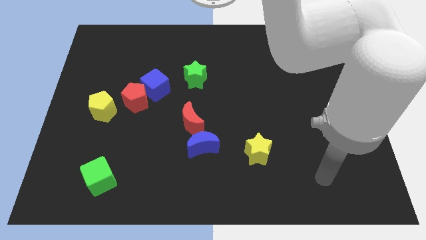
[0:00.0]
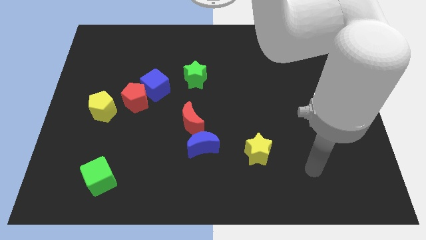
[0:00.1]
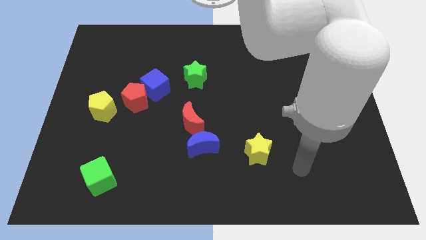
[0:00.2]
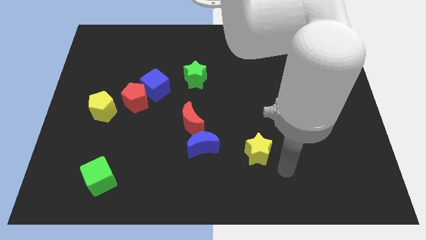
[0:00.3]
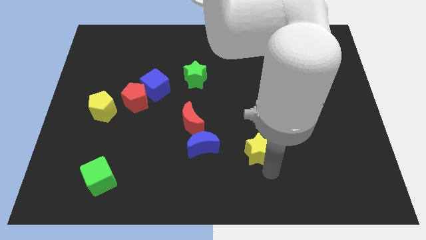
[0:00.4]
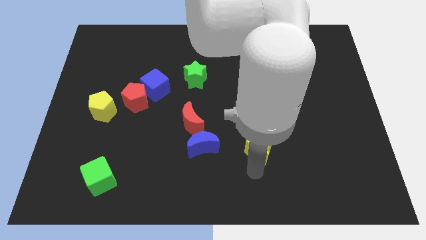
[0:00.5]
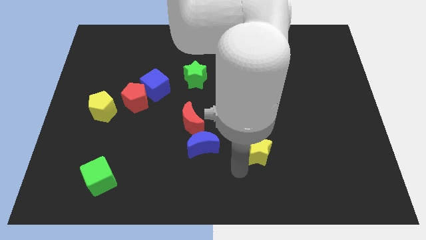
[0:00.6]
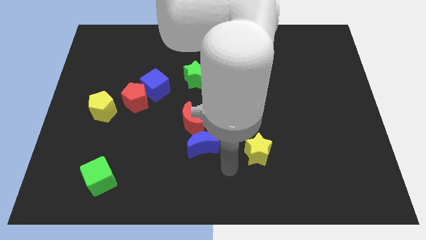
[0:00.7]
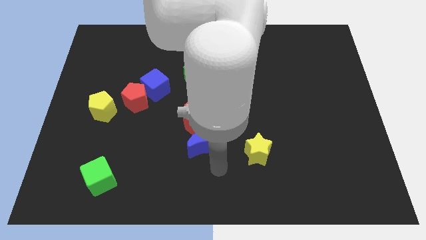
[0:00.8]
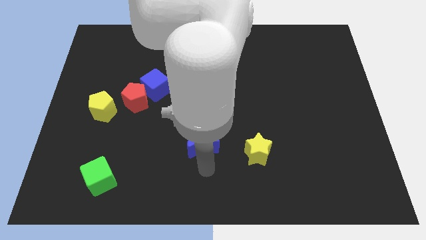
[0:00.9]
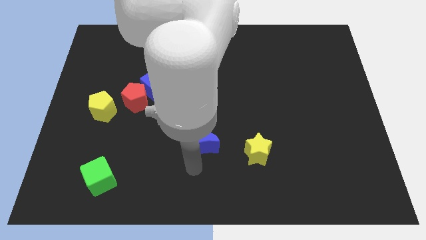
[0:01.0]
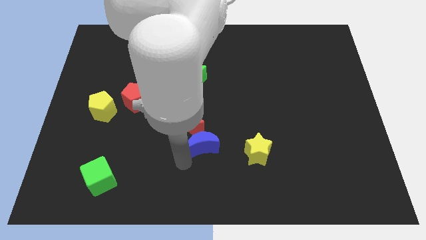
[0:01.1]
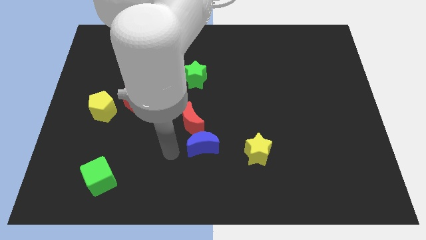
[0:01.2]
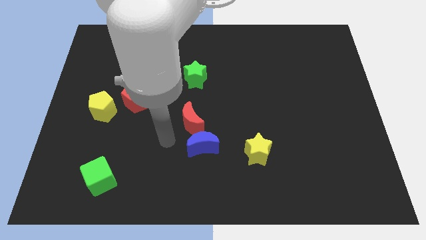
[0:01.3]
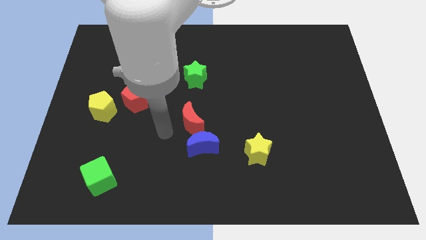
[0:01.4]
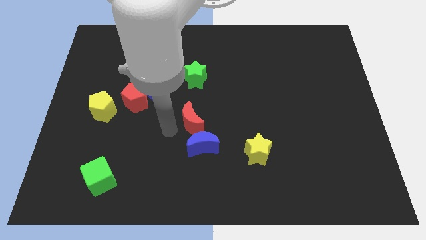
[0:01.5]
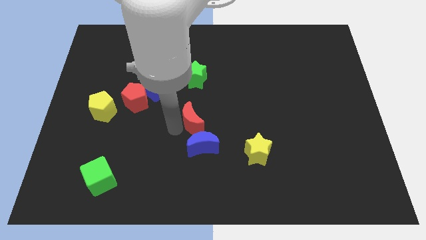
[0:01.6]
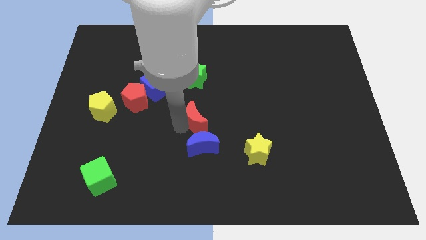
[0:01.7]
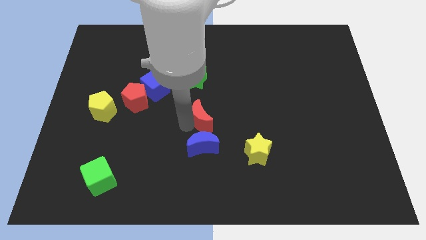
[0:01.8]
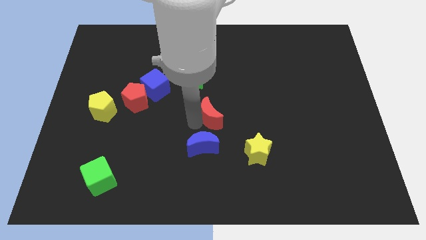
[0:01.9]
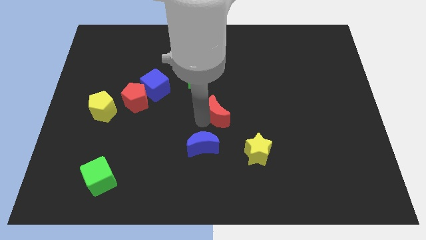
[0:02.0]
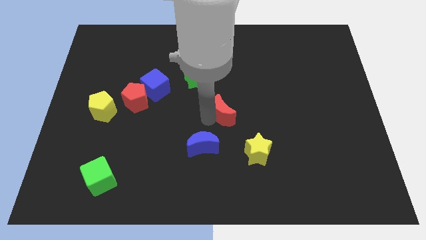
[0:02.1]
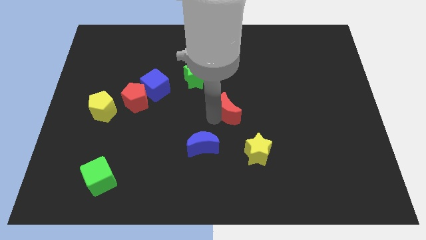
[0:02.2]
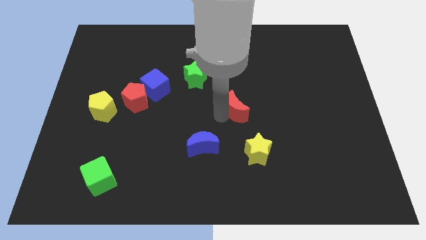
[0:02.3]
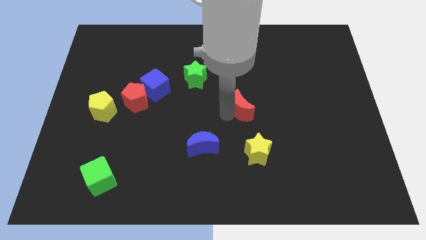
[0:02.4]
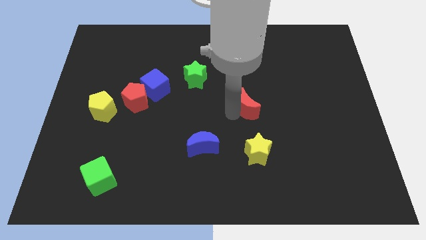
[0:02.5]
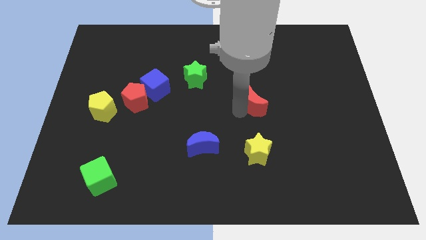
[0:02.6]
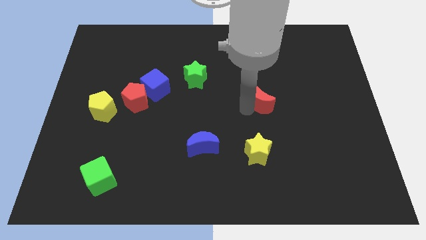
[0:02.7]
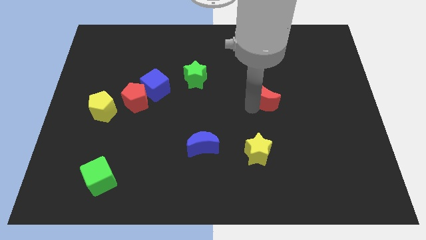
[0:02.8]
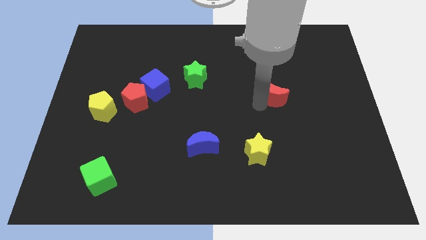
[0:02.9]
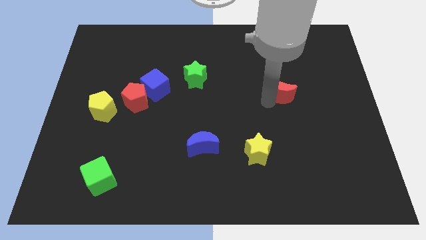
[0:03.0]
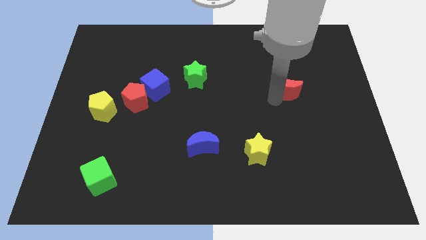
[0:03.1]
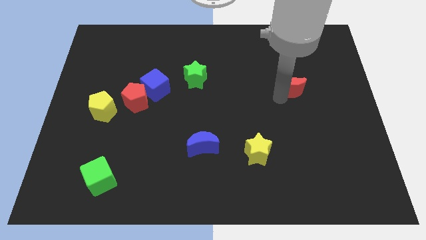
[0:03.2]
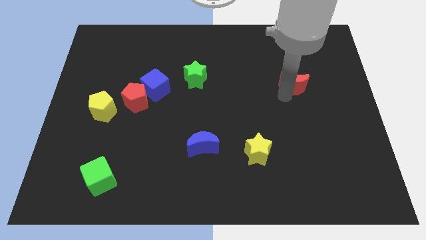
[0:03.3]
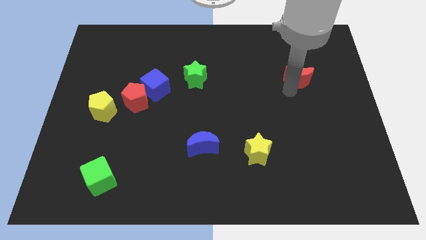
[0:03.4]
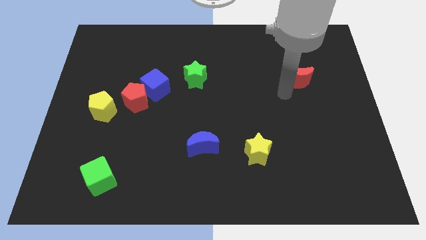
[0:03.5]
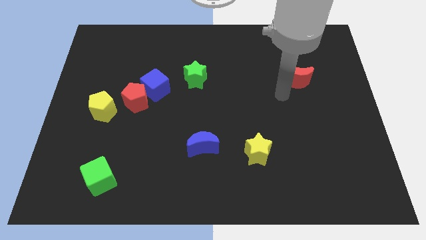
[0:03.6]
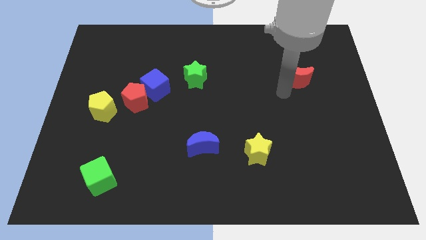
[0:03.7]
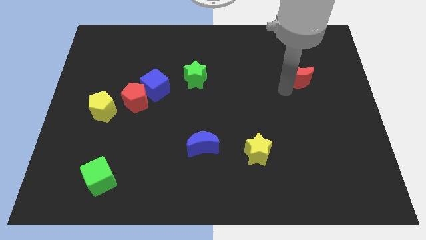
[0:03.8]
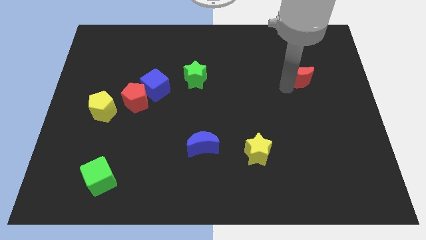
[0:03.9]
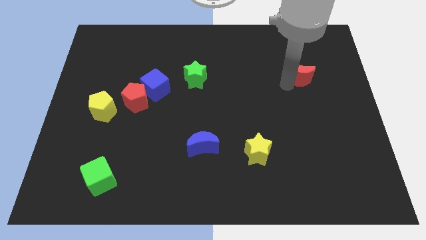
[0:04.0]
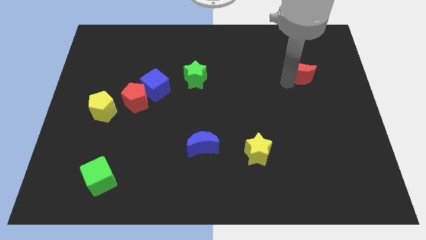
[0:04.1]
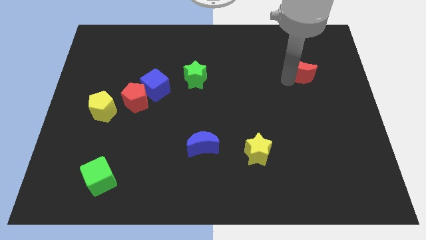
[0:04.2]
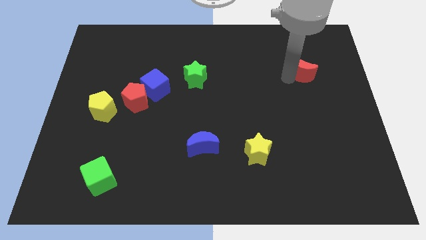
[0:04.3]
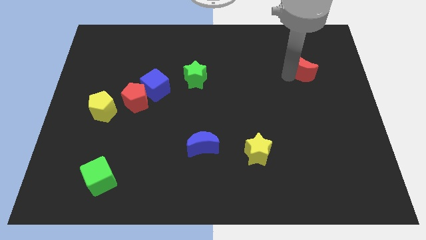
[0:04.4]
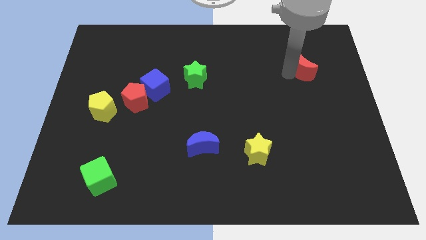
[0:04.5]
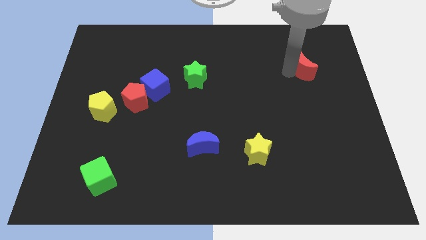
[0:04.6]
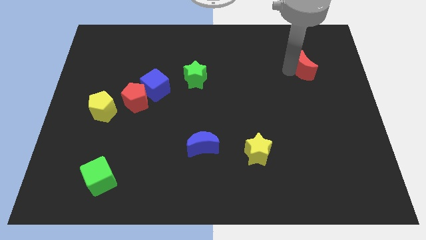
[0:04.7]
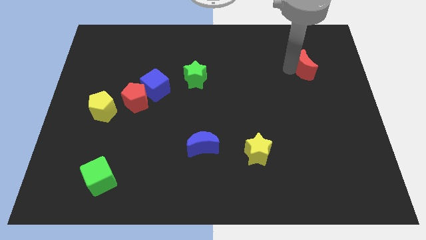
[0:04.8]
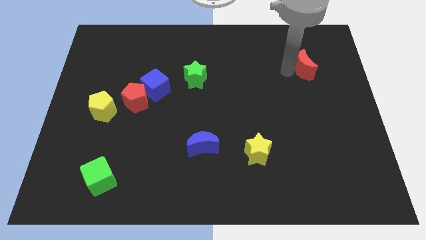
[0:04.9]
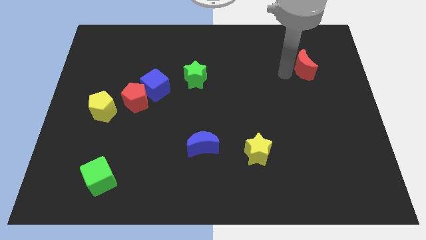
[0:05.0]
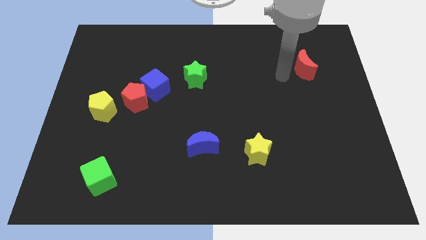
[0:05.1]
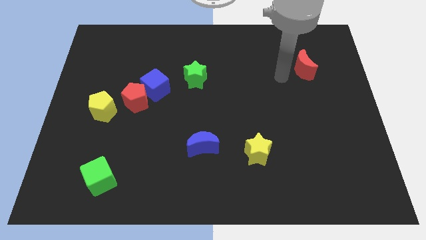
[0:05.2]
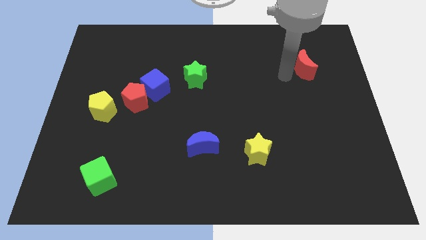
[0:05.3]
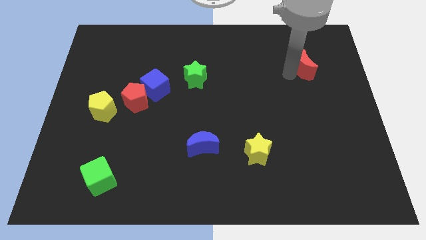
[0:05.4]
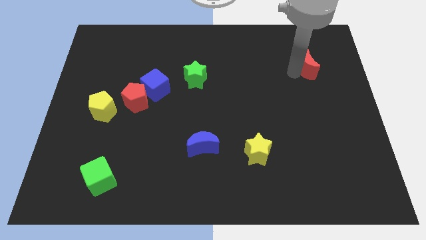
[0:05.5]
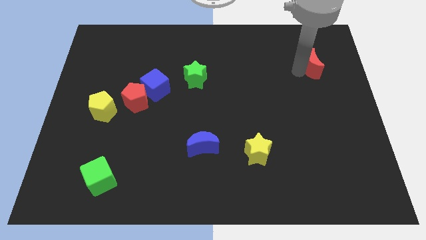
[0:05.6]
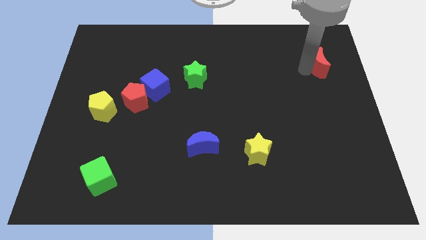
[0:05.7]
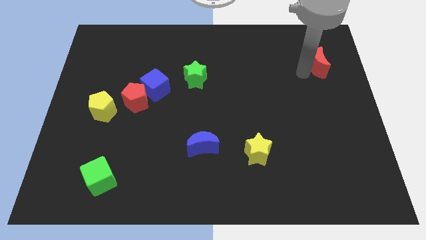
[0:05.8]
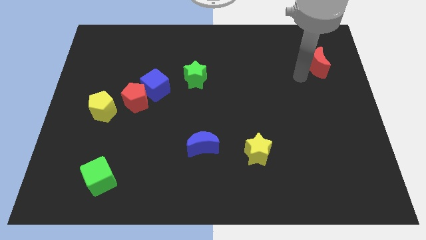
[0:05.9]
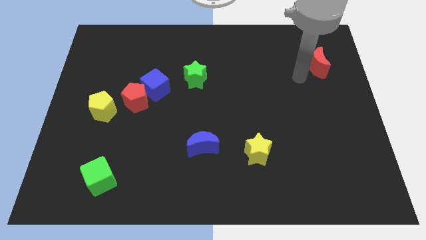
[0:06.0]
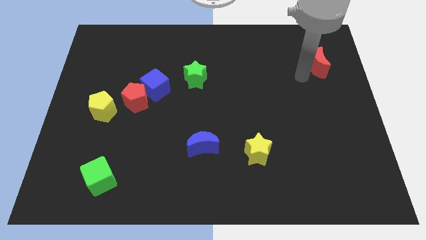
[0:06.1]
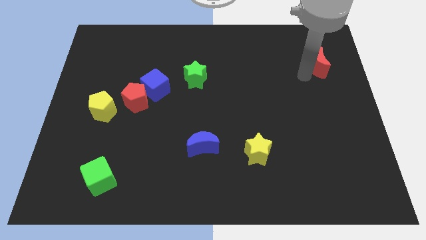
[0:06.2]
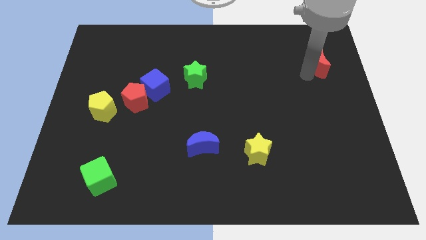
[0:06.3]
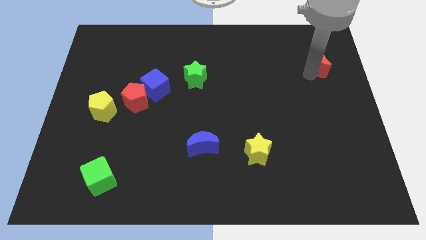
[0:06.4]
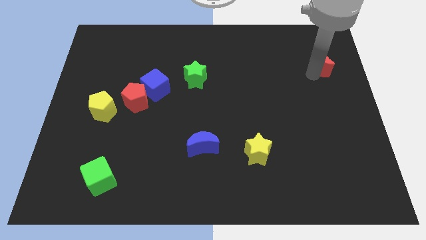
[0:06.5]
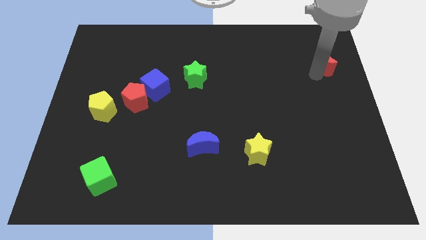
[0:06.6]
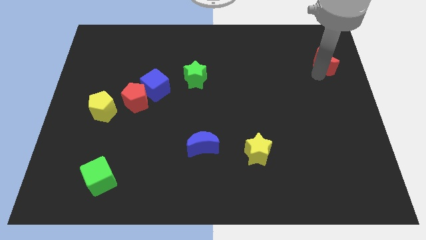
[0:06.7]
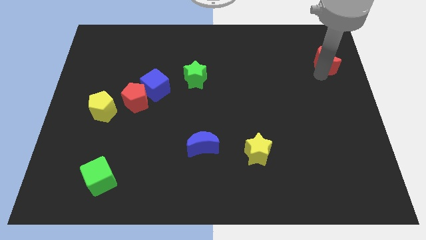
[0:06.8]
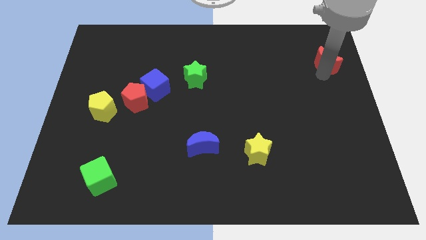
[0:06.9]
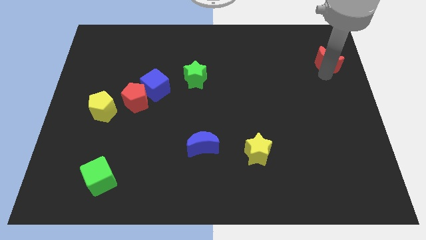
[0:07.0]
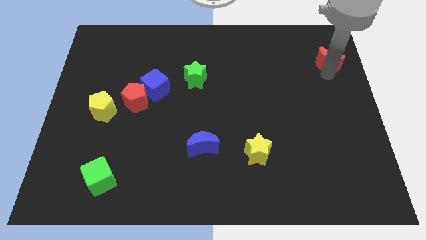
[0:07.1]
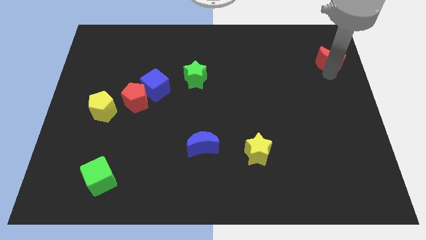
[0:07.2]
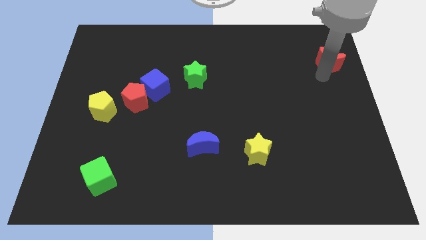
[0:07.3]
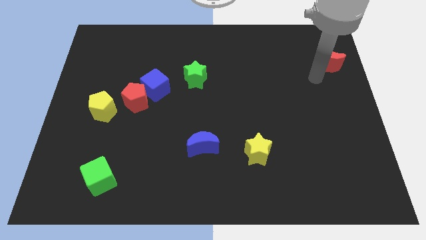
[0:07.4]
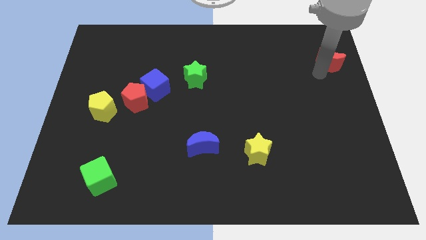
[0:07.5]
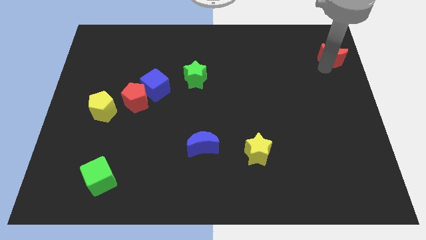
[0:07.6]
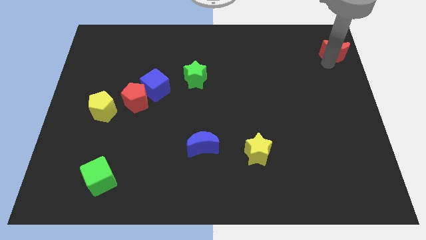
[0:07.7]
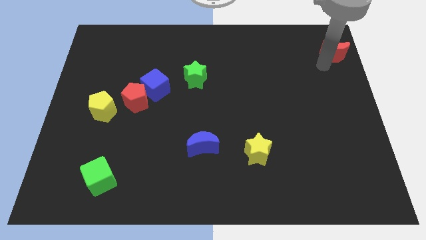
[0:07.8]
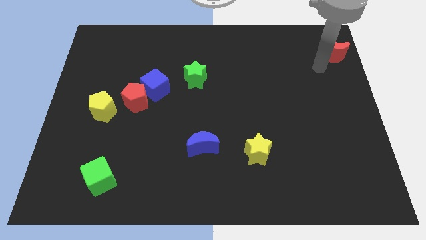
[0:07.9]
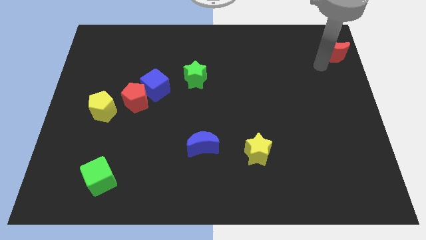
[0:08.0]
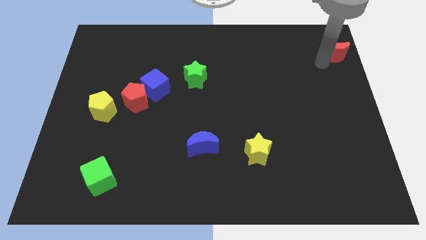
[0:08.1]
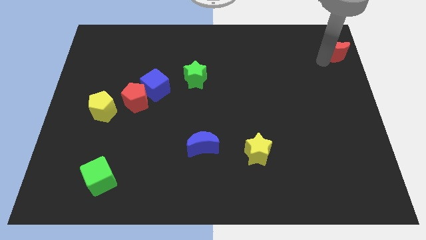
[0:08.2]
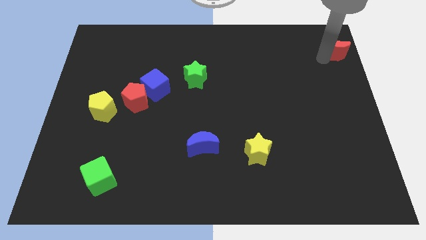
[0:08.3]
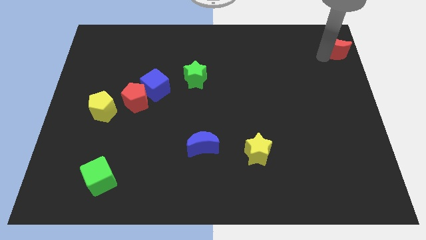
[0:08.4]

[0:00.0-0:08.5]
slide the red moon to the top right
